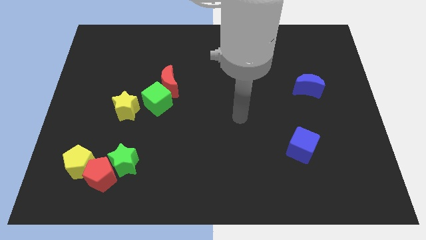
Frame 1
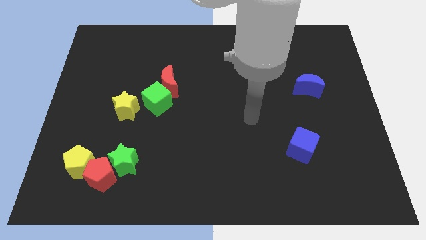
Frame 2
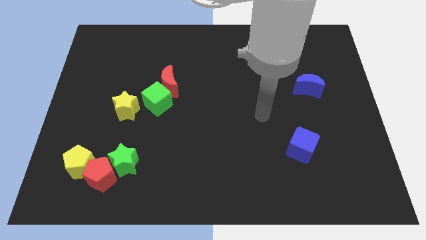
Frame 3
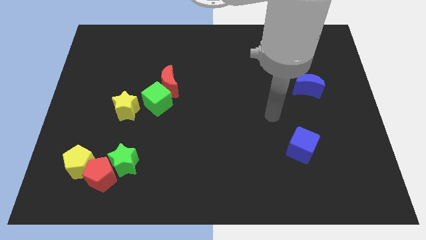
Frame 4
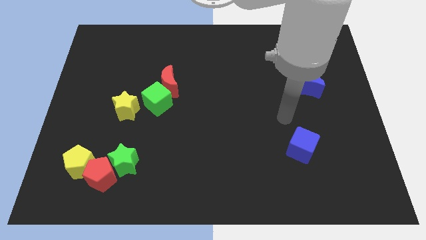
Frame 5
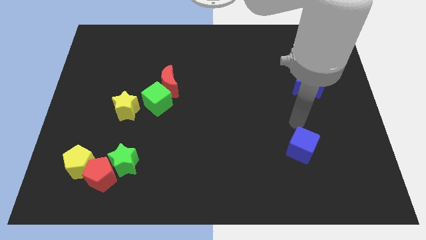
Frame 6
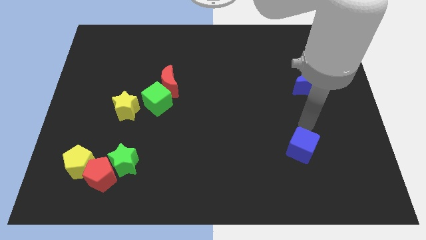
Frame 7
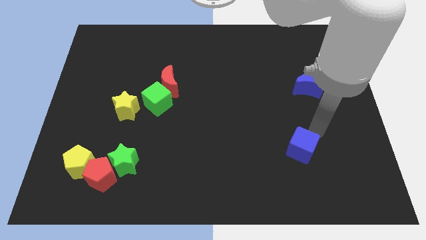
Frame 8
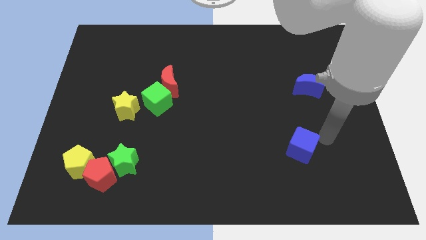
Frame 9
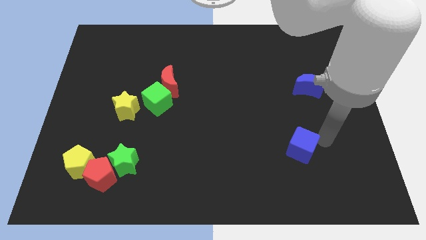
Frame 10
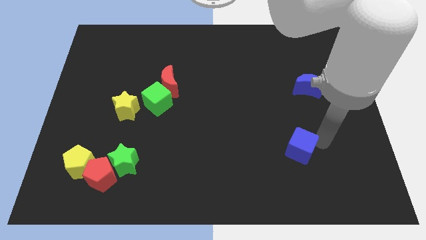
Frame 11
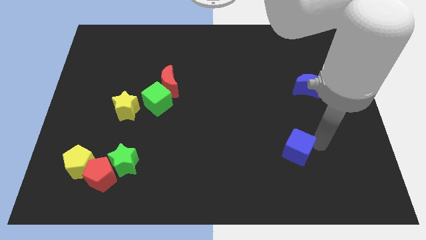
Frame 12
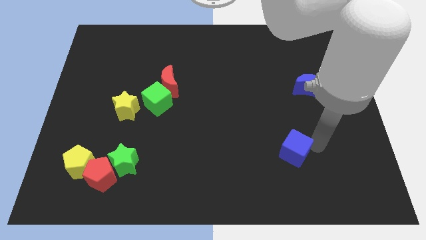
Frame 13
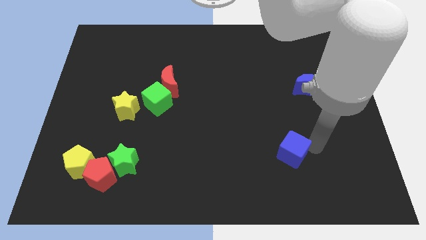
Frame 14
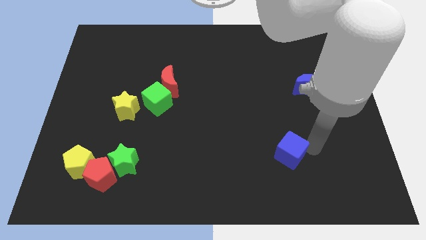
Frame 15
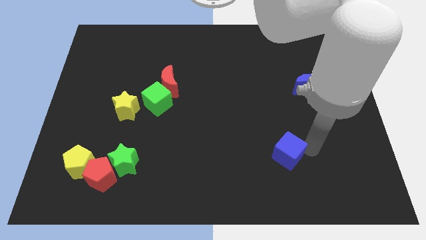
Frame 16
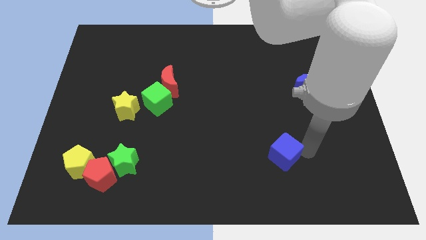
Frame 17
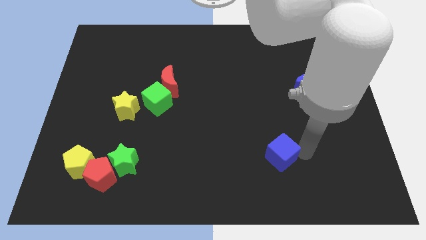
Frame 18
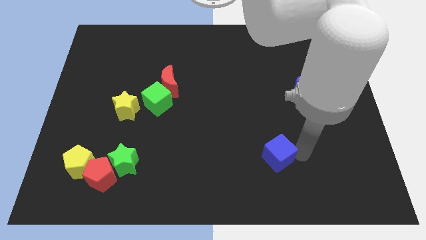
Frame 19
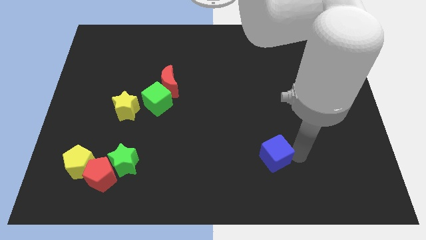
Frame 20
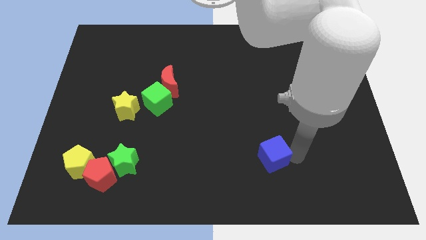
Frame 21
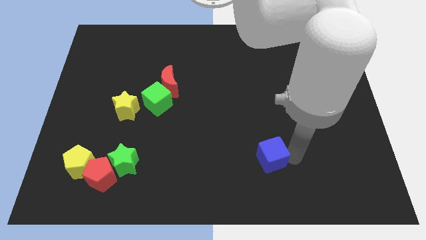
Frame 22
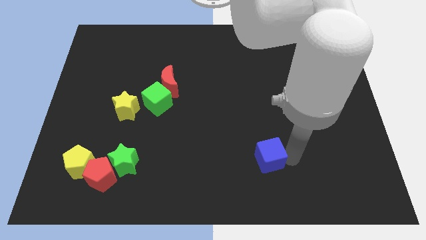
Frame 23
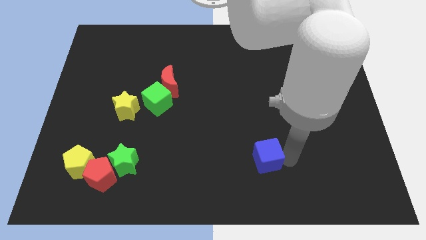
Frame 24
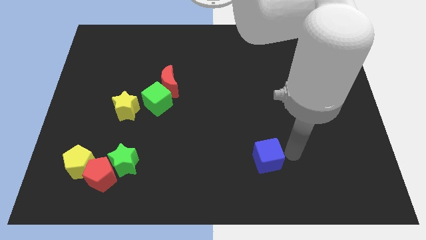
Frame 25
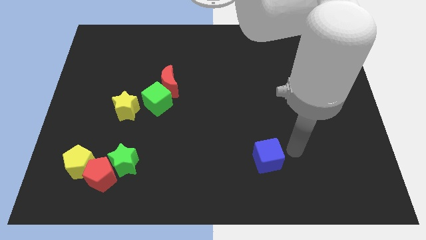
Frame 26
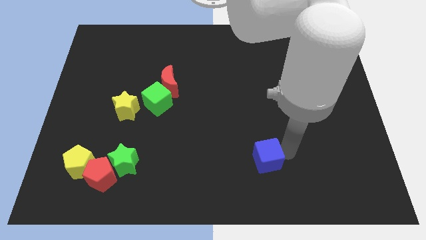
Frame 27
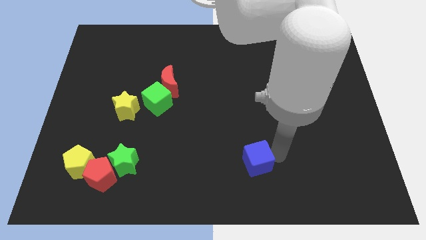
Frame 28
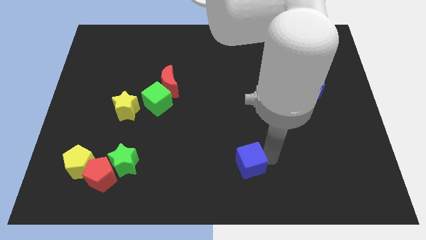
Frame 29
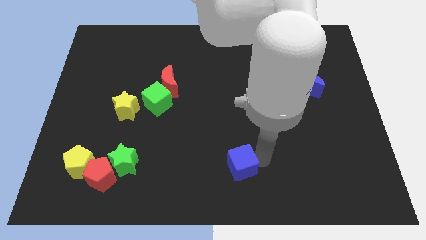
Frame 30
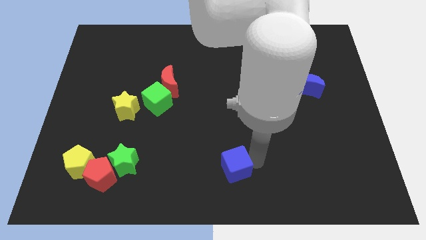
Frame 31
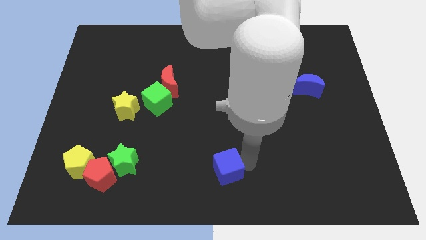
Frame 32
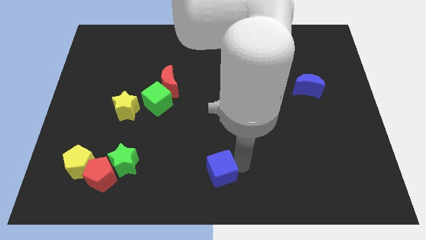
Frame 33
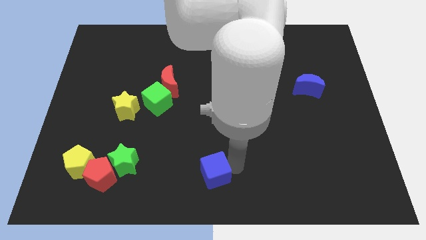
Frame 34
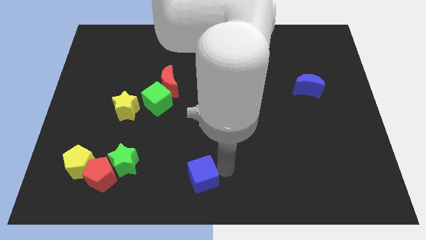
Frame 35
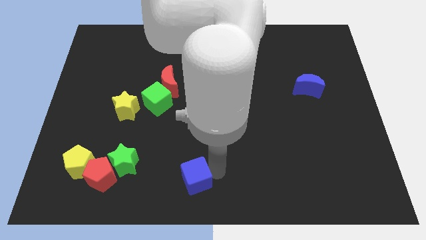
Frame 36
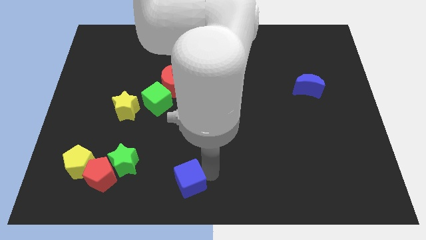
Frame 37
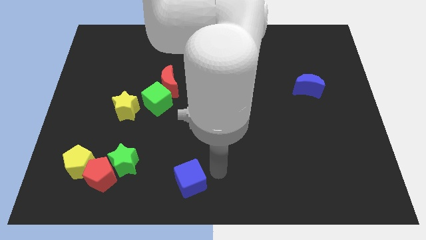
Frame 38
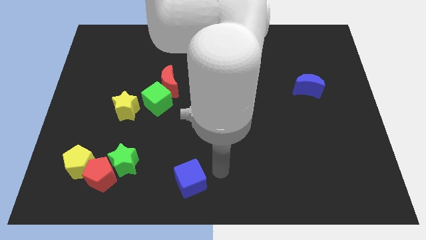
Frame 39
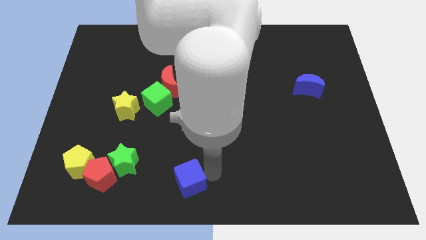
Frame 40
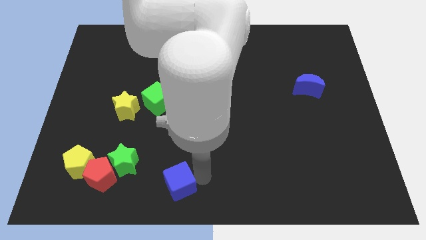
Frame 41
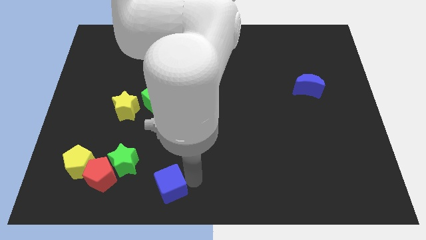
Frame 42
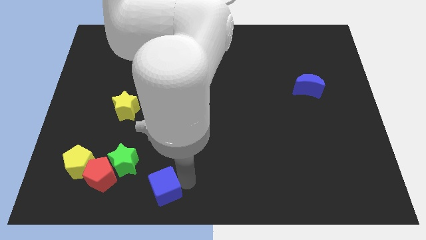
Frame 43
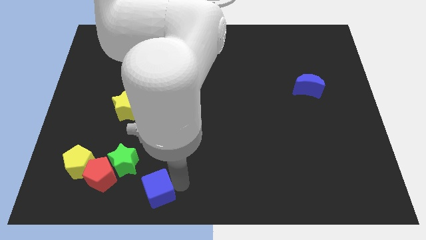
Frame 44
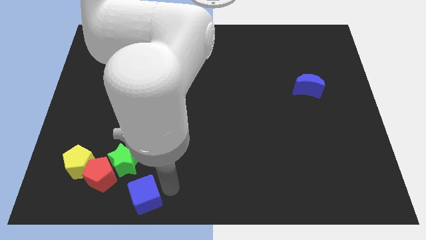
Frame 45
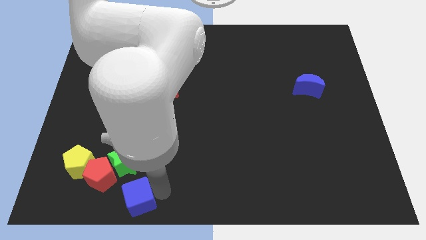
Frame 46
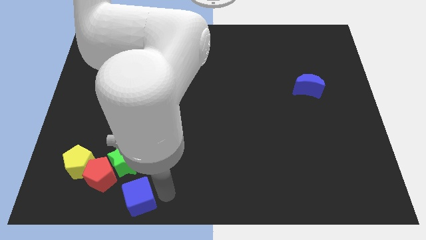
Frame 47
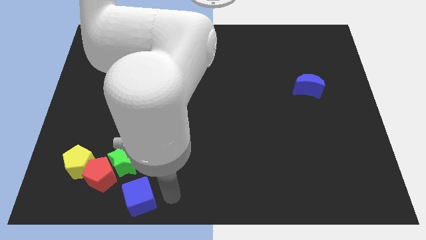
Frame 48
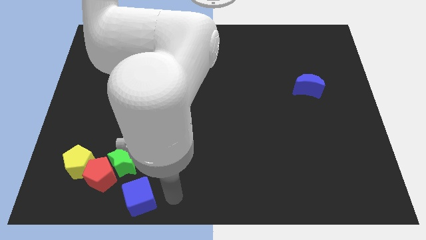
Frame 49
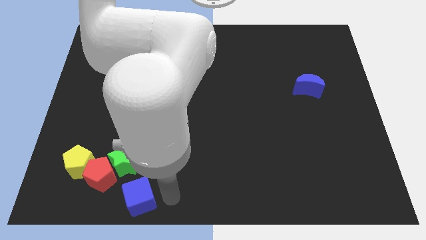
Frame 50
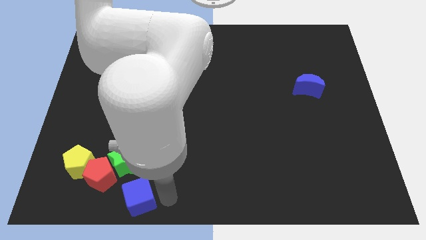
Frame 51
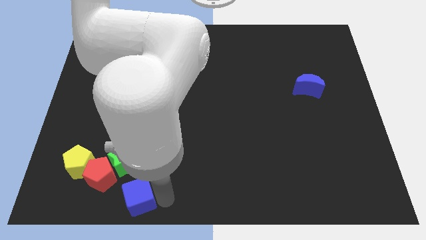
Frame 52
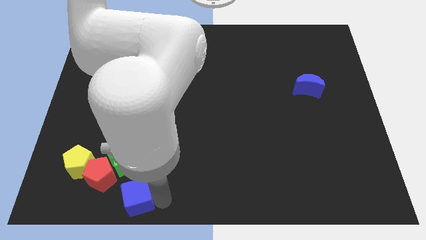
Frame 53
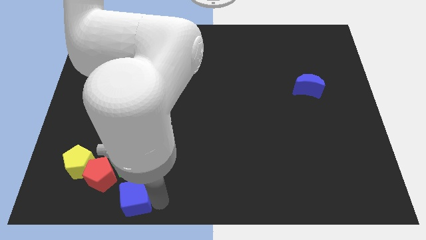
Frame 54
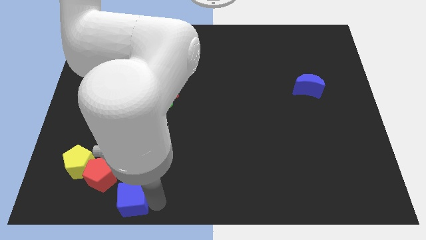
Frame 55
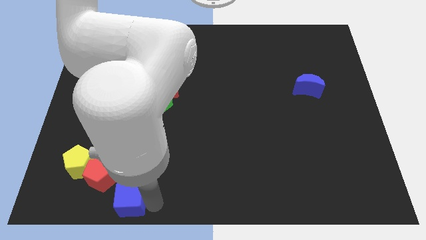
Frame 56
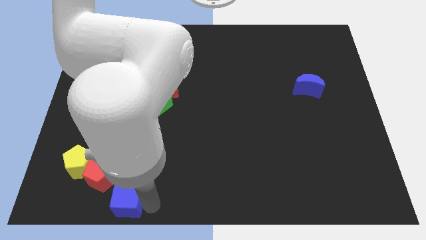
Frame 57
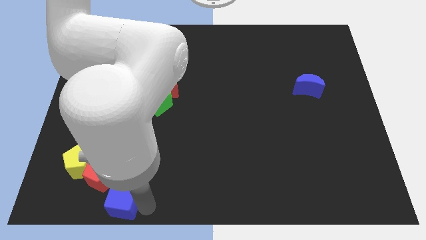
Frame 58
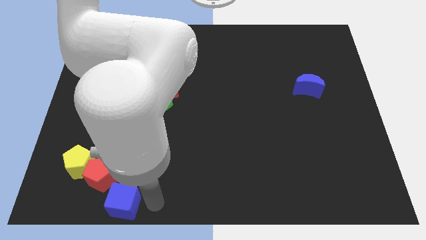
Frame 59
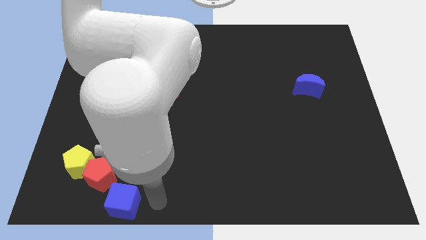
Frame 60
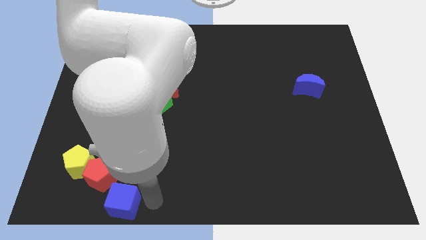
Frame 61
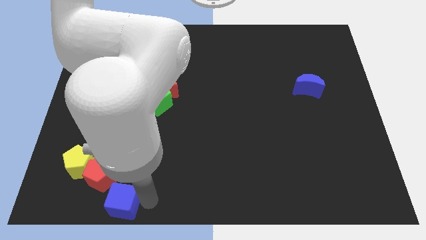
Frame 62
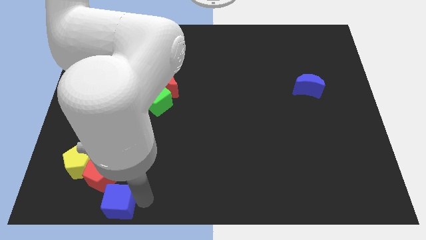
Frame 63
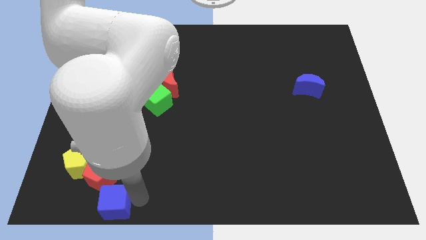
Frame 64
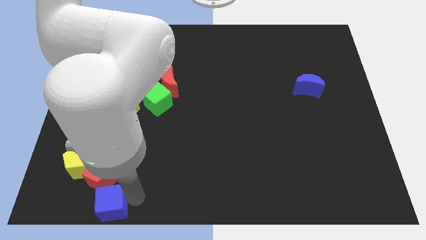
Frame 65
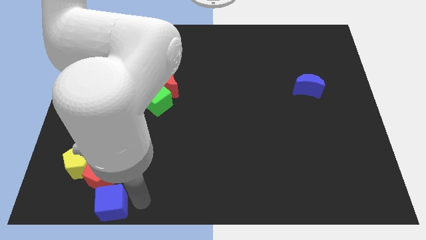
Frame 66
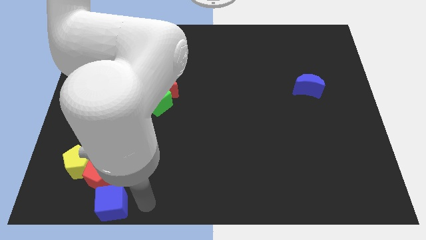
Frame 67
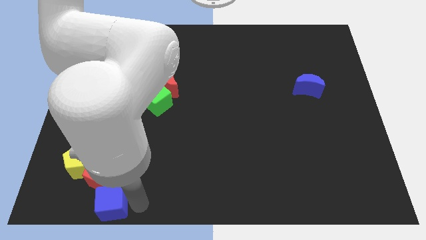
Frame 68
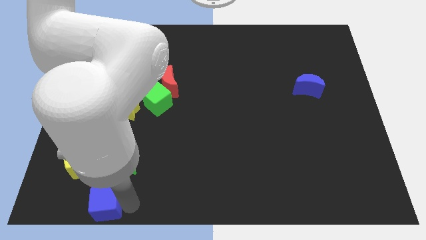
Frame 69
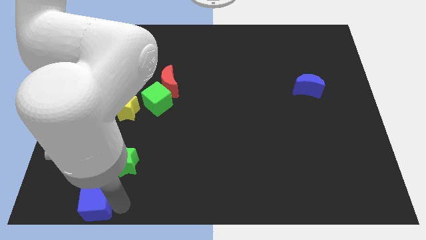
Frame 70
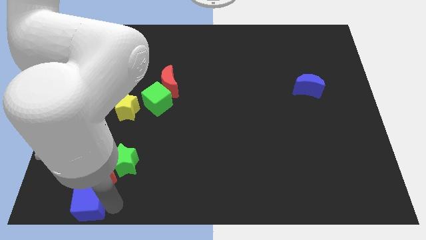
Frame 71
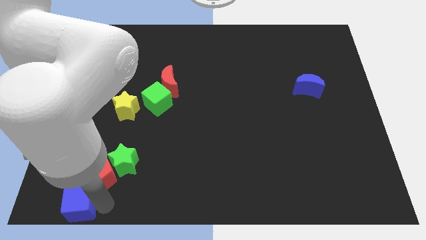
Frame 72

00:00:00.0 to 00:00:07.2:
slide the blue cube to the bottom left
